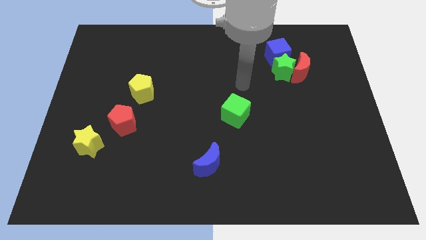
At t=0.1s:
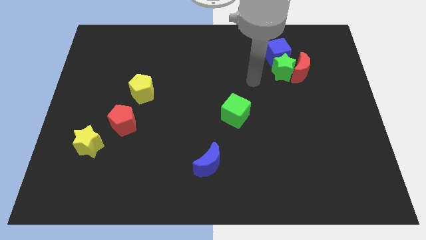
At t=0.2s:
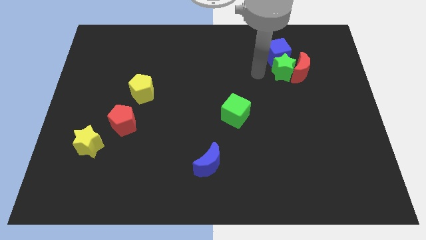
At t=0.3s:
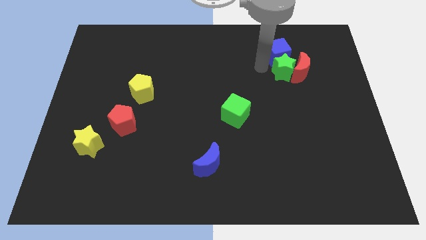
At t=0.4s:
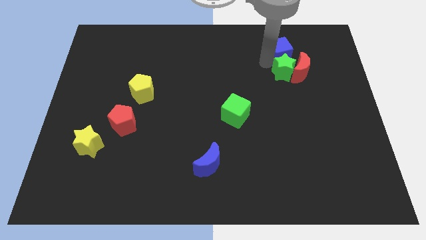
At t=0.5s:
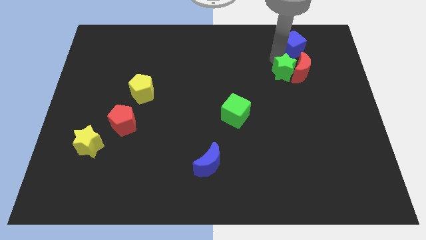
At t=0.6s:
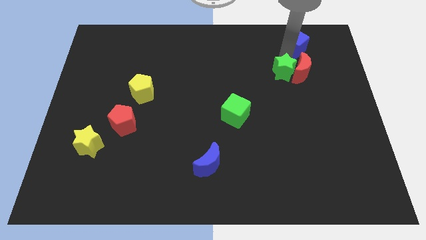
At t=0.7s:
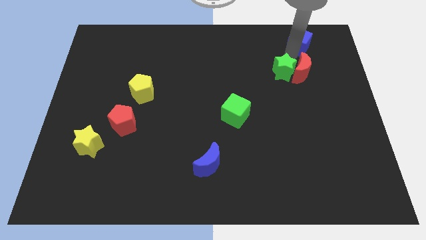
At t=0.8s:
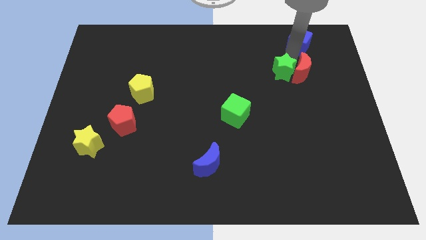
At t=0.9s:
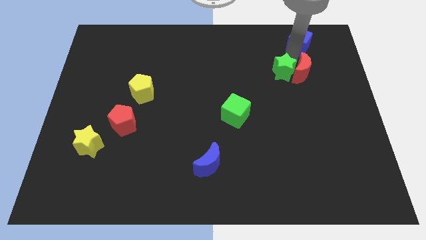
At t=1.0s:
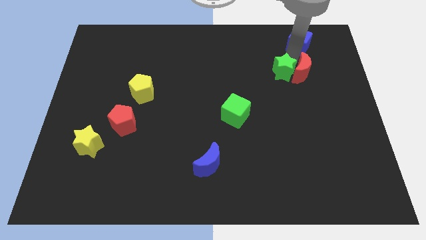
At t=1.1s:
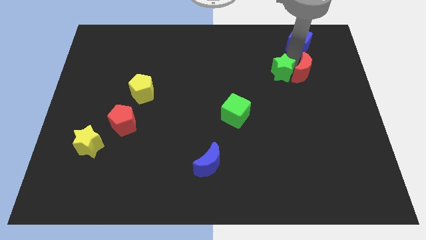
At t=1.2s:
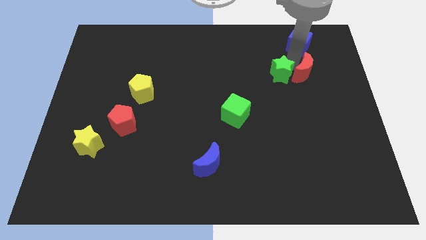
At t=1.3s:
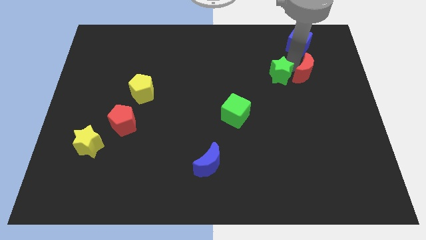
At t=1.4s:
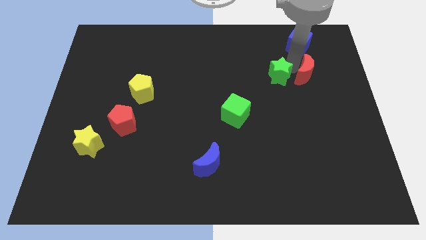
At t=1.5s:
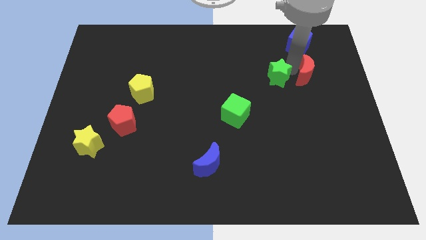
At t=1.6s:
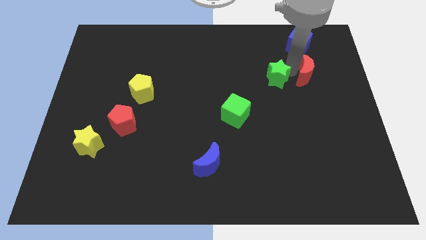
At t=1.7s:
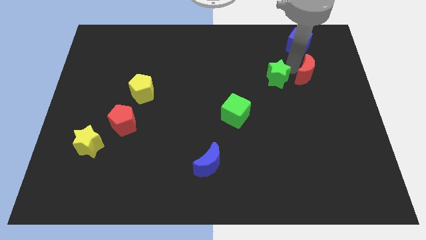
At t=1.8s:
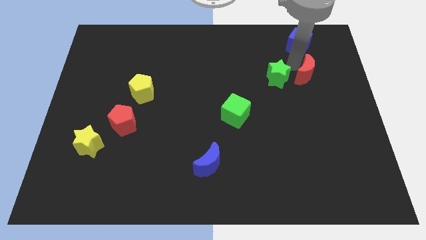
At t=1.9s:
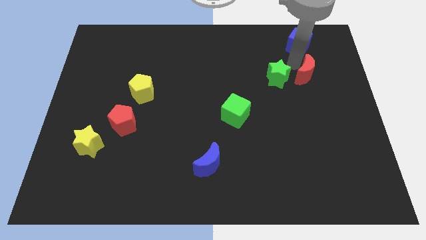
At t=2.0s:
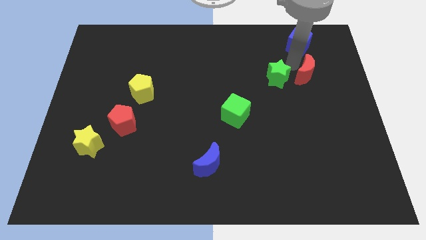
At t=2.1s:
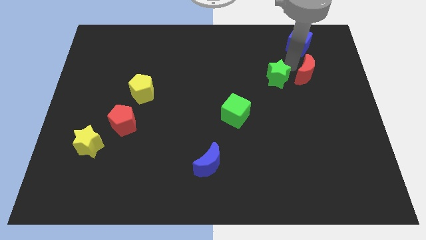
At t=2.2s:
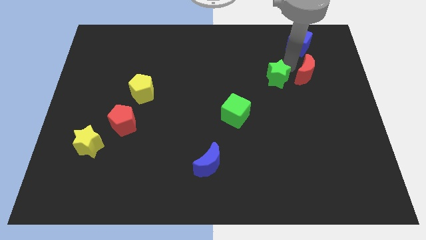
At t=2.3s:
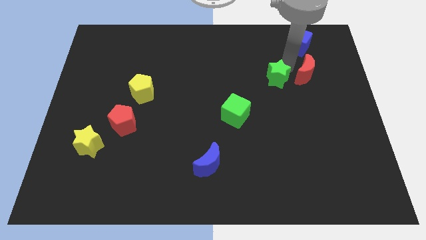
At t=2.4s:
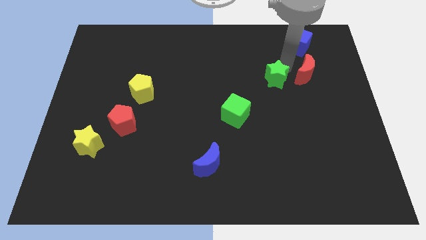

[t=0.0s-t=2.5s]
pull the green star apart from the red moon and blue cube

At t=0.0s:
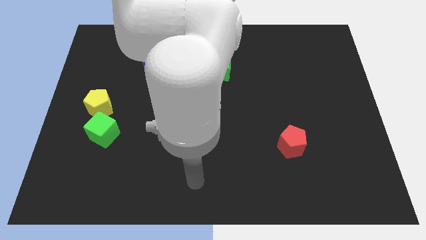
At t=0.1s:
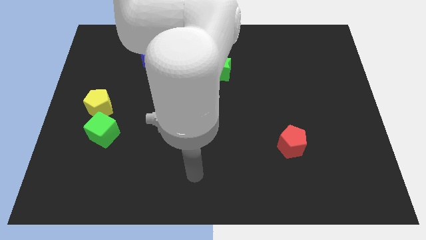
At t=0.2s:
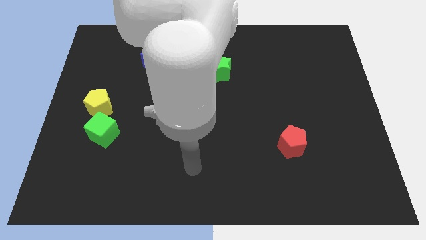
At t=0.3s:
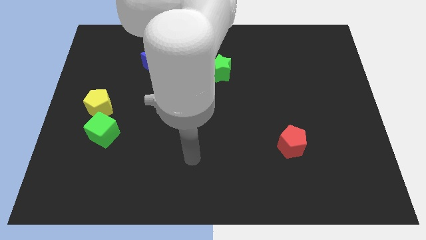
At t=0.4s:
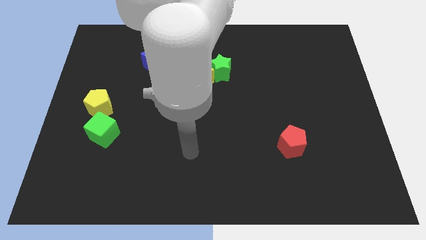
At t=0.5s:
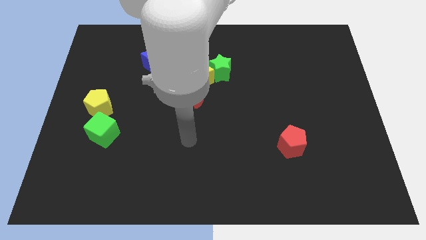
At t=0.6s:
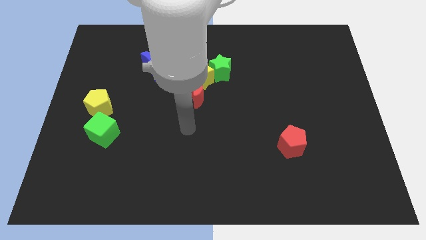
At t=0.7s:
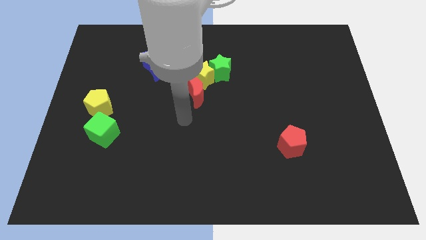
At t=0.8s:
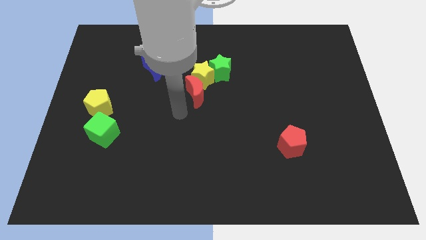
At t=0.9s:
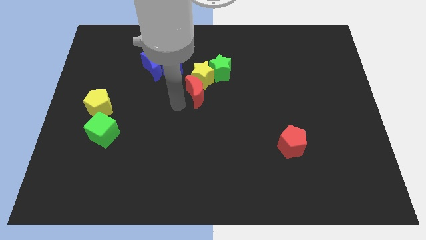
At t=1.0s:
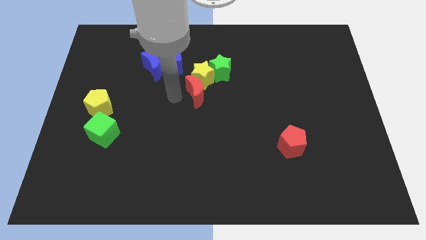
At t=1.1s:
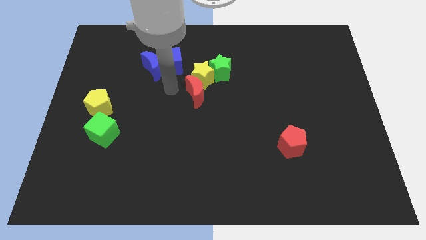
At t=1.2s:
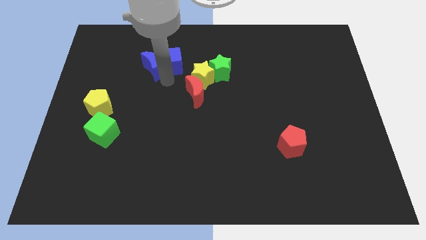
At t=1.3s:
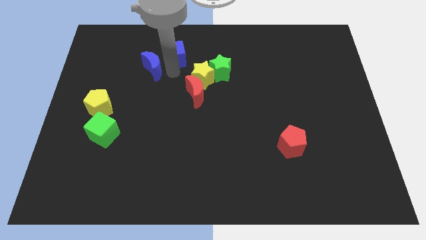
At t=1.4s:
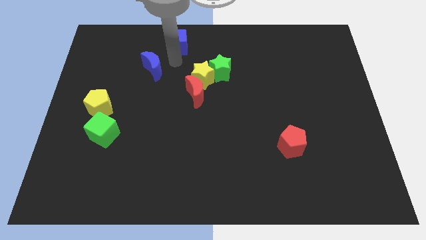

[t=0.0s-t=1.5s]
pull the blue moon apart from the blue cube

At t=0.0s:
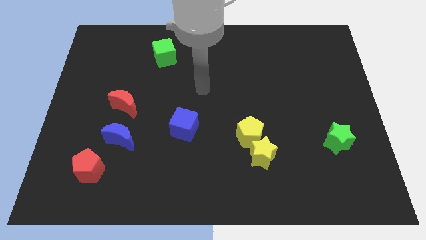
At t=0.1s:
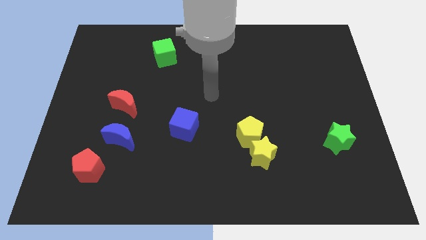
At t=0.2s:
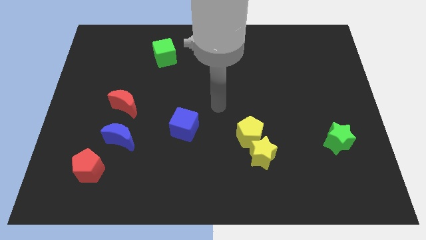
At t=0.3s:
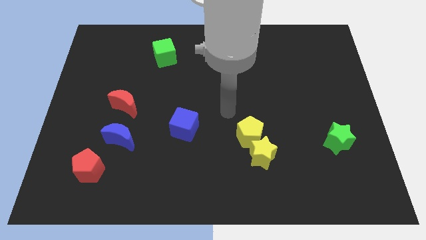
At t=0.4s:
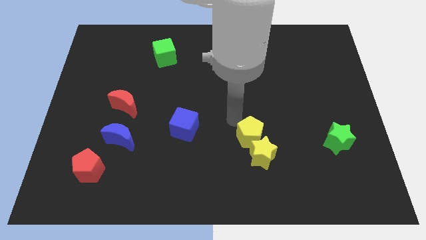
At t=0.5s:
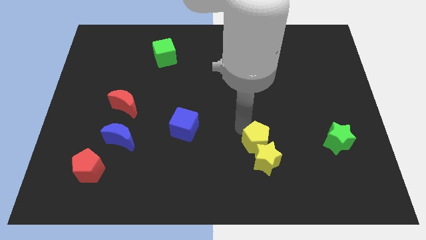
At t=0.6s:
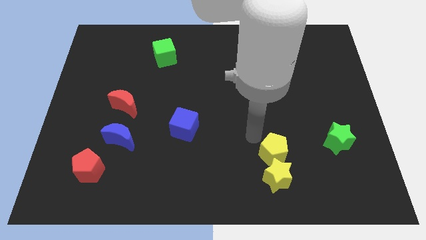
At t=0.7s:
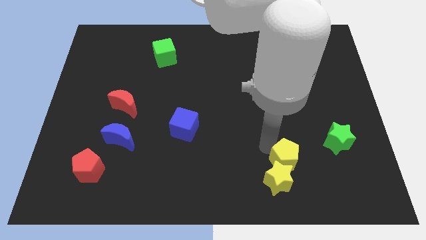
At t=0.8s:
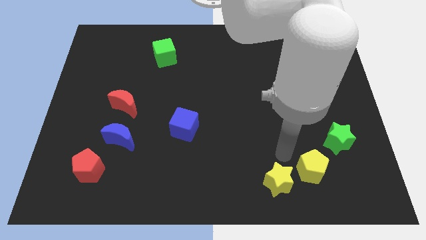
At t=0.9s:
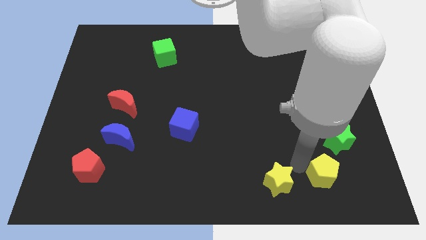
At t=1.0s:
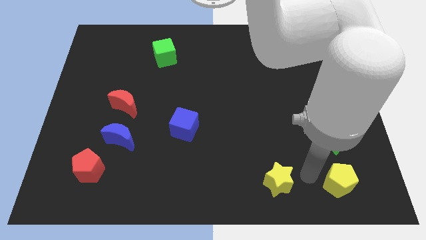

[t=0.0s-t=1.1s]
move the yellow star away from the yellow pentagon

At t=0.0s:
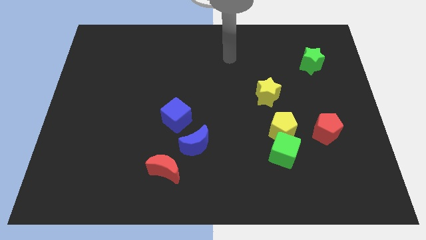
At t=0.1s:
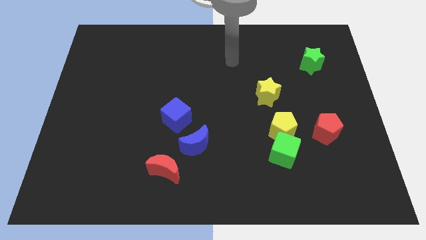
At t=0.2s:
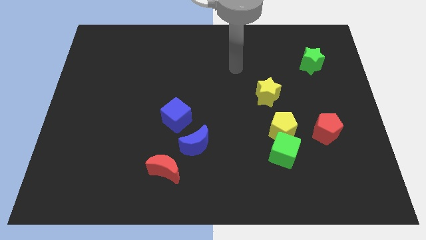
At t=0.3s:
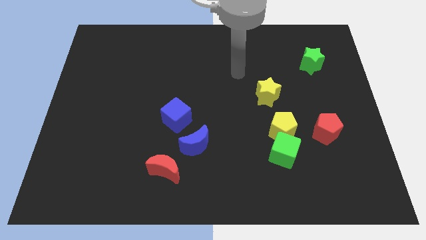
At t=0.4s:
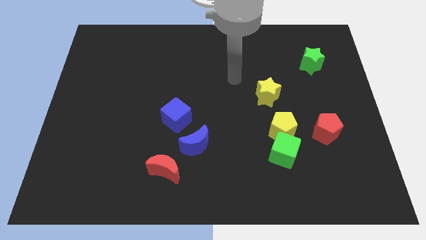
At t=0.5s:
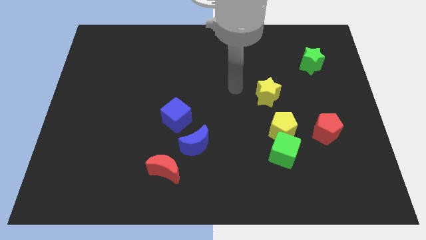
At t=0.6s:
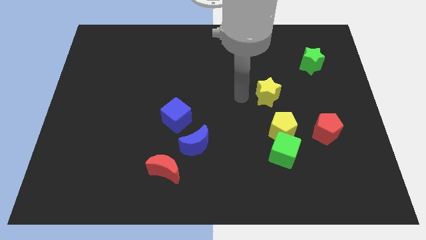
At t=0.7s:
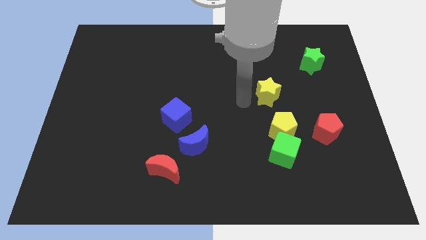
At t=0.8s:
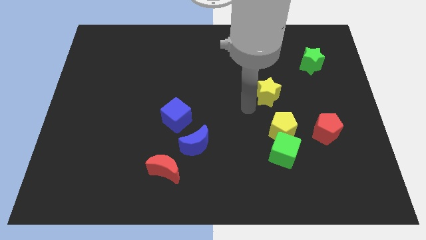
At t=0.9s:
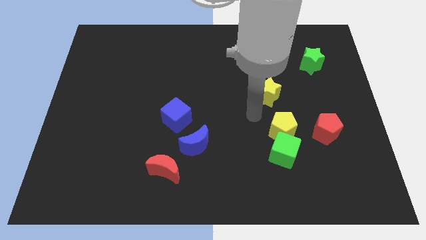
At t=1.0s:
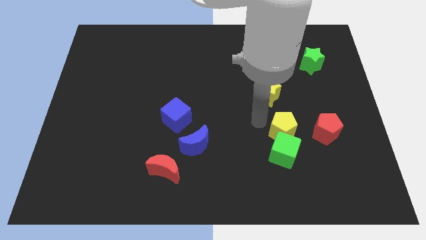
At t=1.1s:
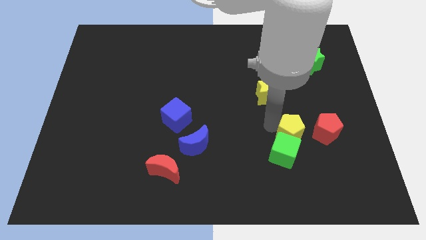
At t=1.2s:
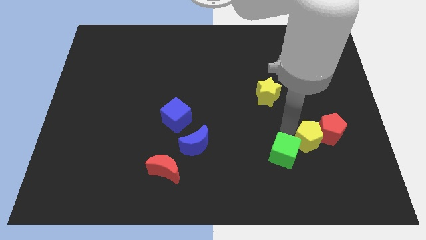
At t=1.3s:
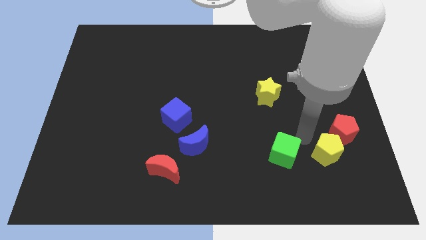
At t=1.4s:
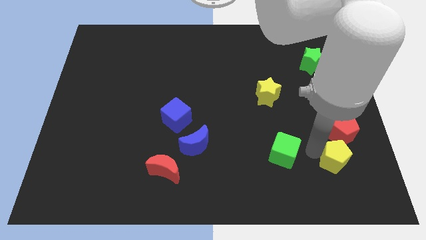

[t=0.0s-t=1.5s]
pull the green cube apart from the yellow pentagon

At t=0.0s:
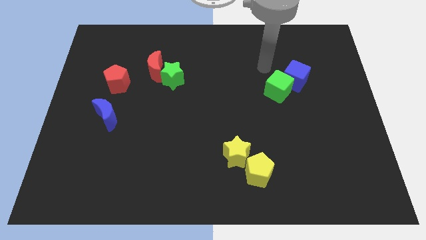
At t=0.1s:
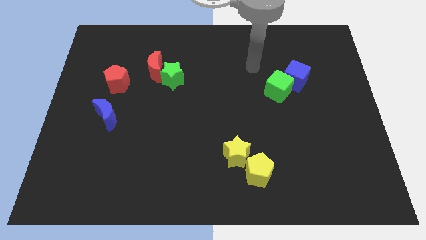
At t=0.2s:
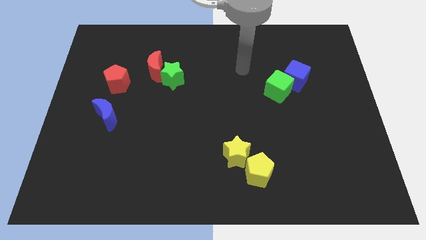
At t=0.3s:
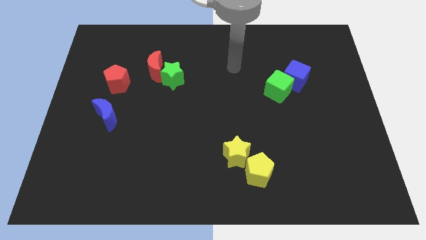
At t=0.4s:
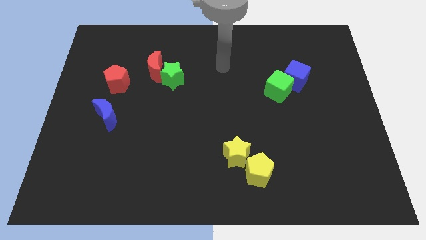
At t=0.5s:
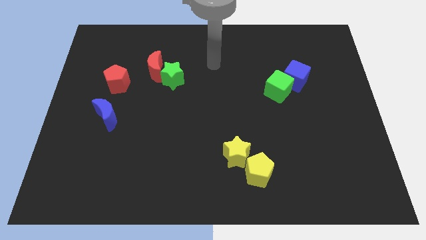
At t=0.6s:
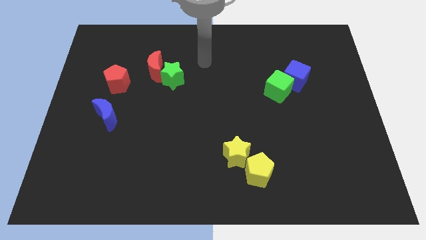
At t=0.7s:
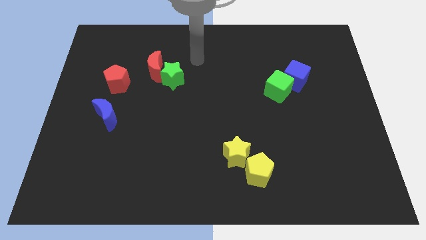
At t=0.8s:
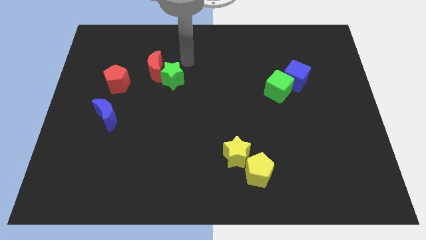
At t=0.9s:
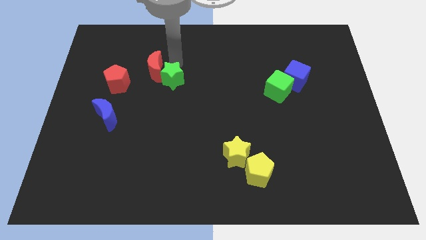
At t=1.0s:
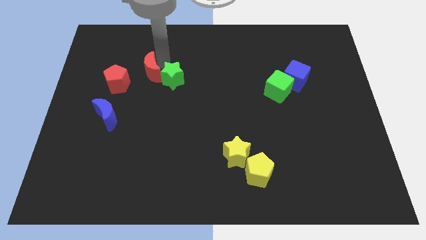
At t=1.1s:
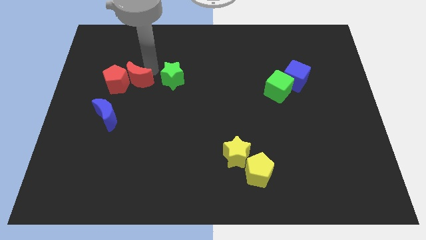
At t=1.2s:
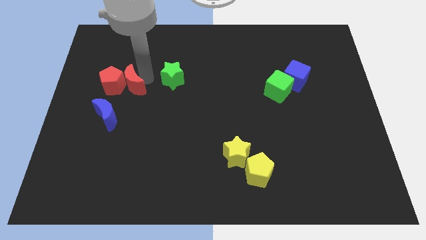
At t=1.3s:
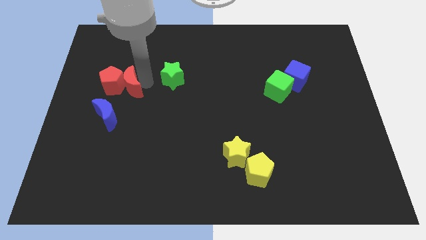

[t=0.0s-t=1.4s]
move the green star away from the red moon

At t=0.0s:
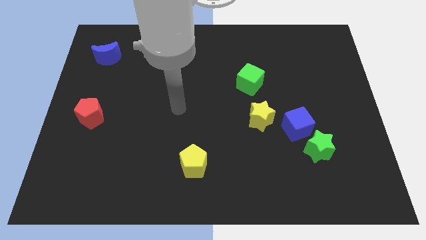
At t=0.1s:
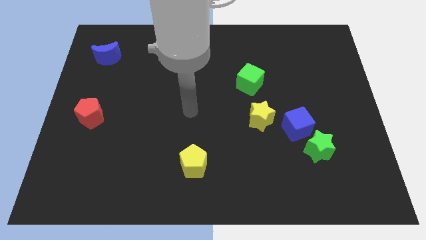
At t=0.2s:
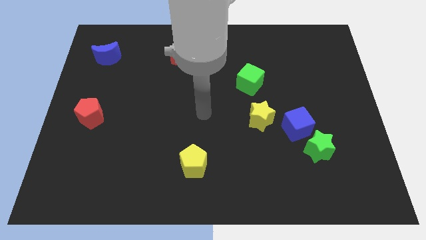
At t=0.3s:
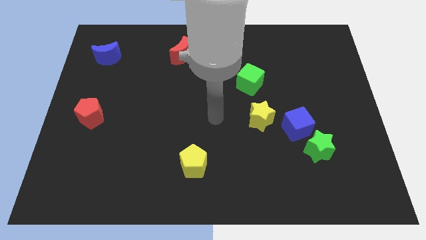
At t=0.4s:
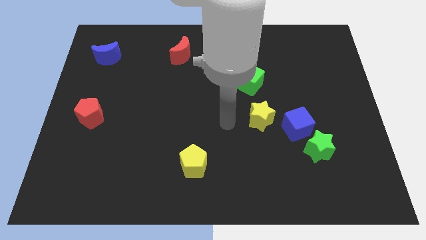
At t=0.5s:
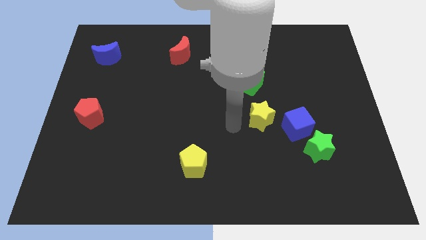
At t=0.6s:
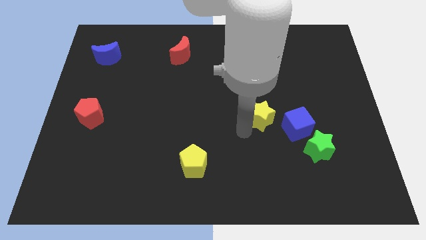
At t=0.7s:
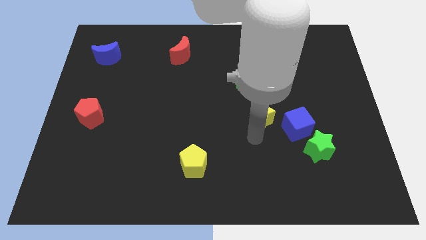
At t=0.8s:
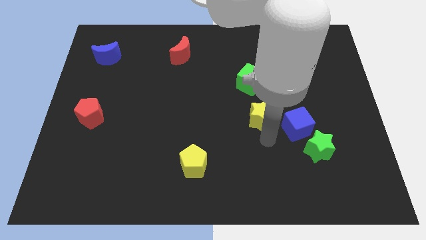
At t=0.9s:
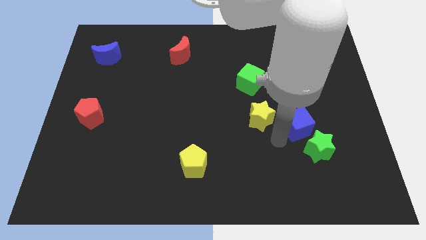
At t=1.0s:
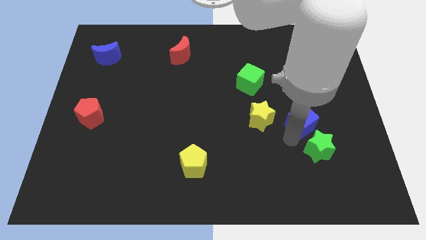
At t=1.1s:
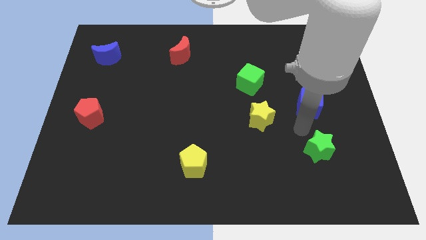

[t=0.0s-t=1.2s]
move the green star away from the blue cube

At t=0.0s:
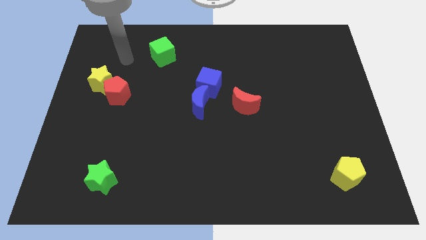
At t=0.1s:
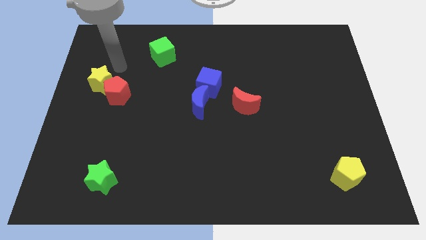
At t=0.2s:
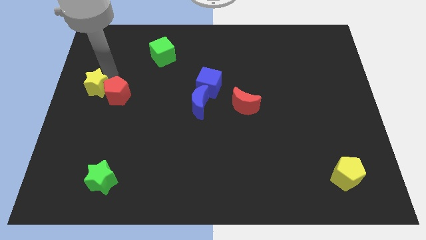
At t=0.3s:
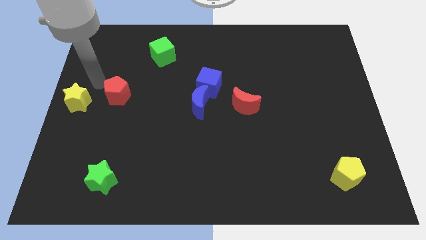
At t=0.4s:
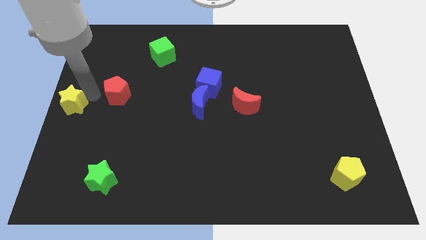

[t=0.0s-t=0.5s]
separate the red pentagon from the yellow star
